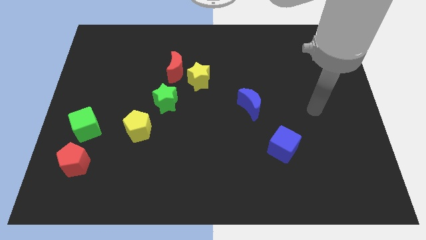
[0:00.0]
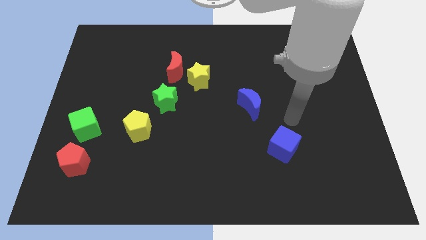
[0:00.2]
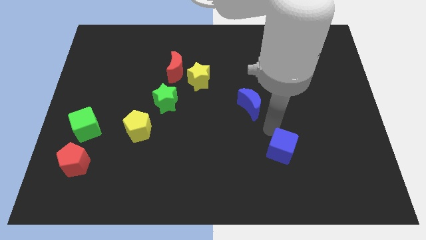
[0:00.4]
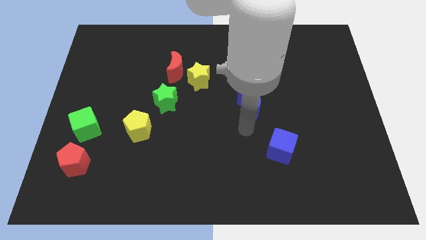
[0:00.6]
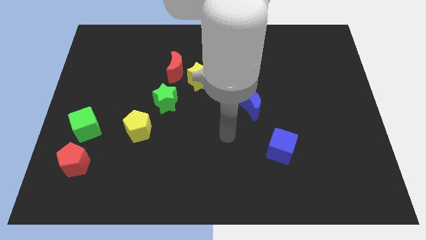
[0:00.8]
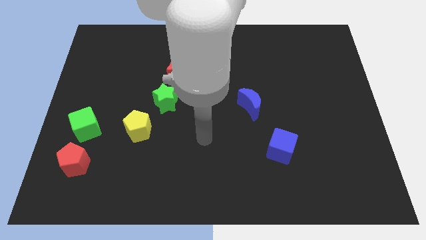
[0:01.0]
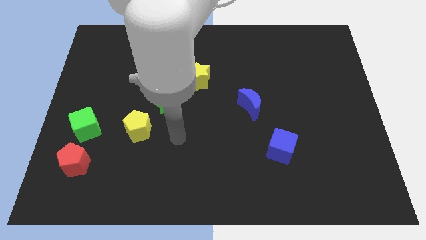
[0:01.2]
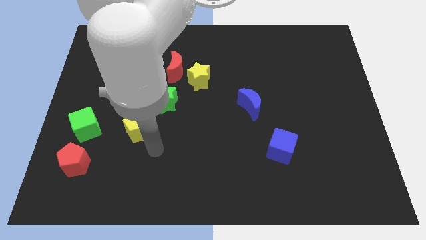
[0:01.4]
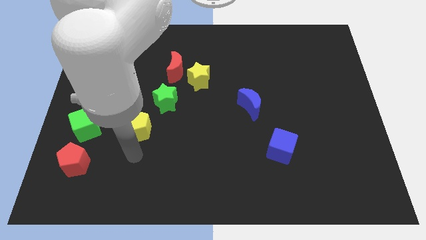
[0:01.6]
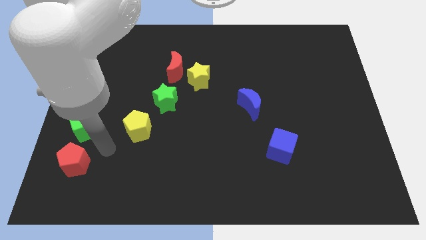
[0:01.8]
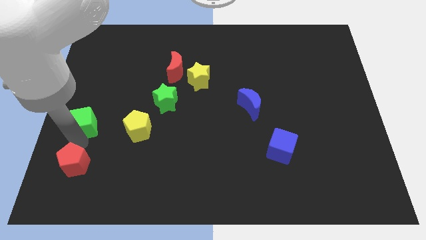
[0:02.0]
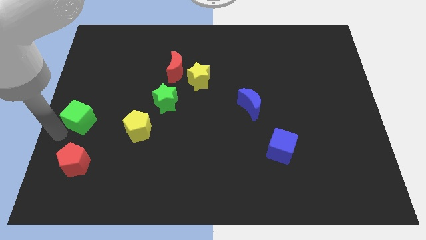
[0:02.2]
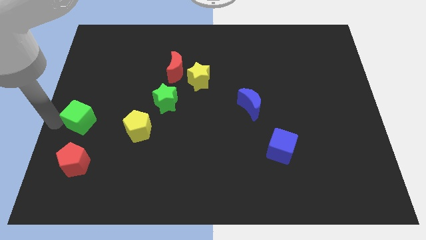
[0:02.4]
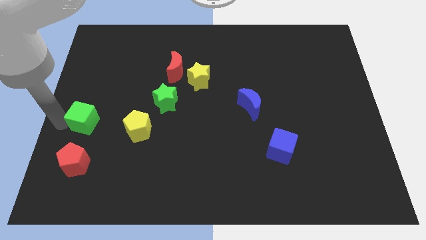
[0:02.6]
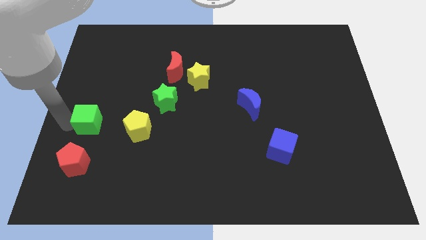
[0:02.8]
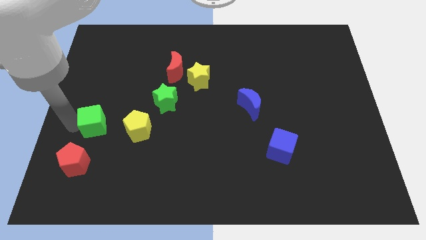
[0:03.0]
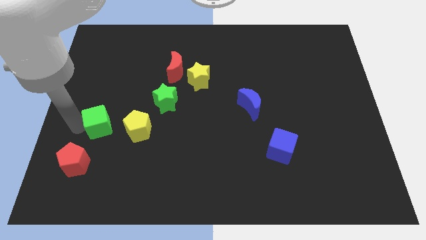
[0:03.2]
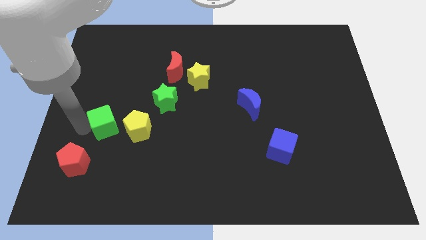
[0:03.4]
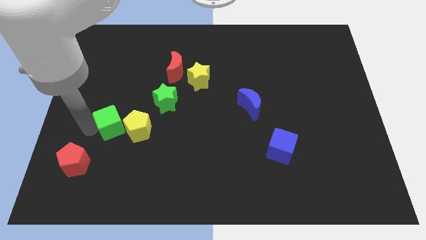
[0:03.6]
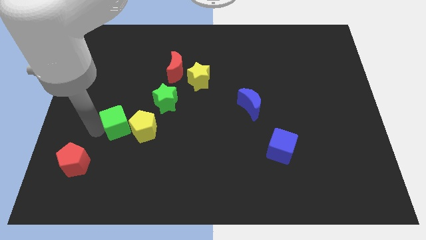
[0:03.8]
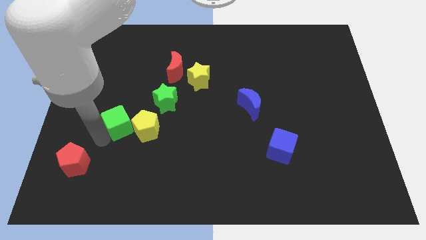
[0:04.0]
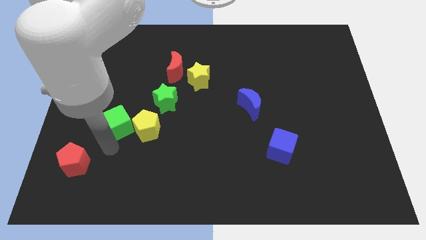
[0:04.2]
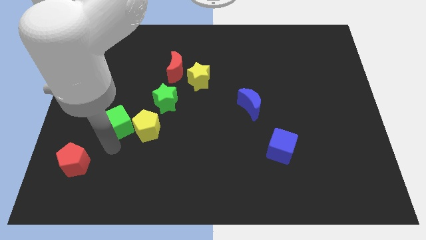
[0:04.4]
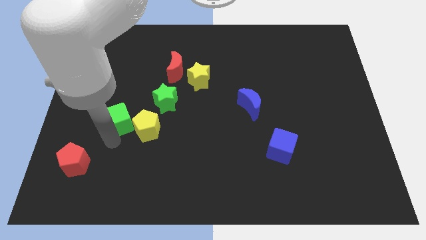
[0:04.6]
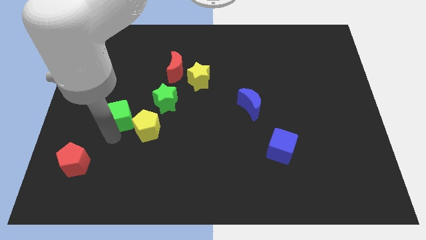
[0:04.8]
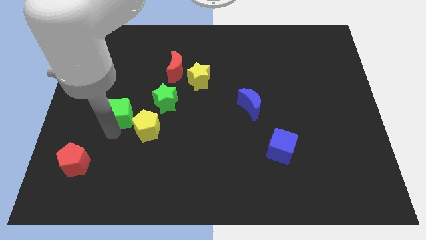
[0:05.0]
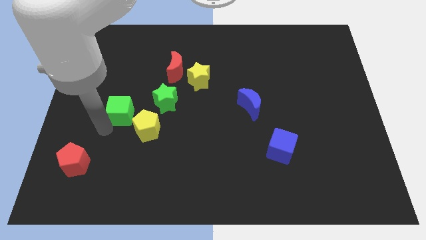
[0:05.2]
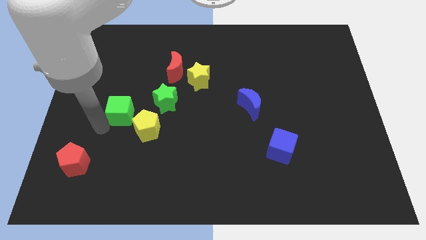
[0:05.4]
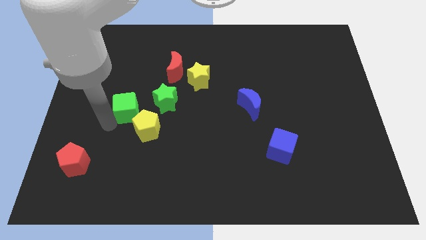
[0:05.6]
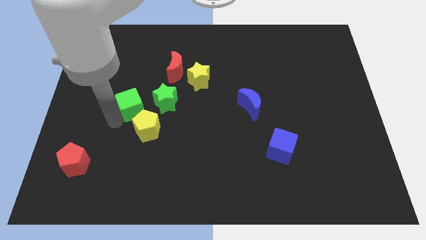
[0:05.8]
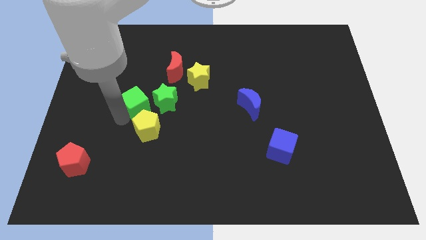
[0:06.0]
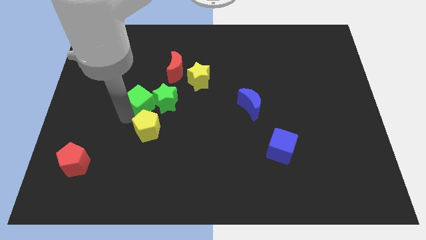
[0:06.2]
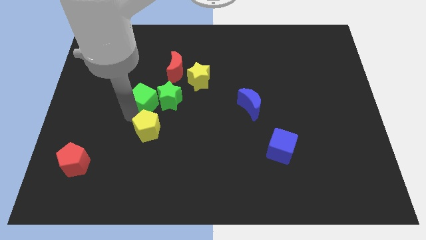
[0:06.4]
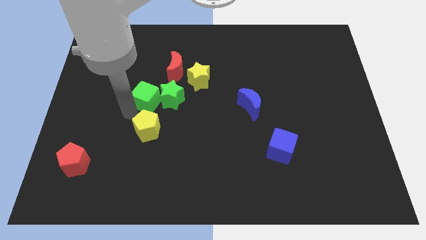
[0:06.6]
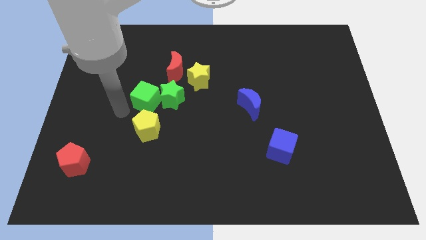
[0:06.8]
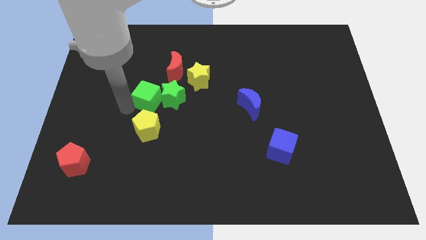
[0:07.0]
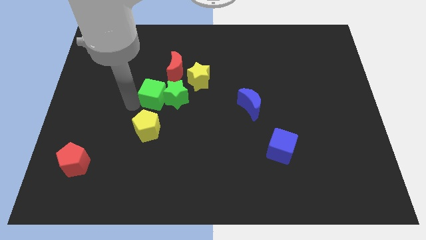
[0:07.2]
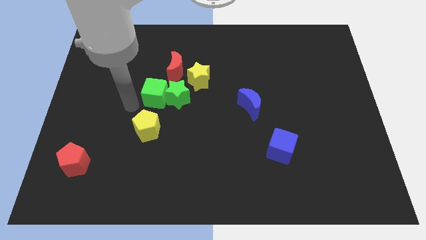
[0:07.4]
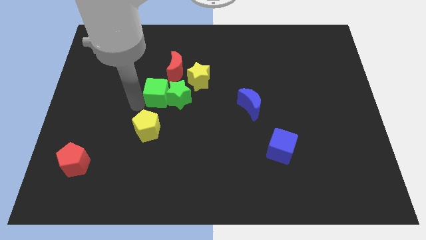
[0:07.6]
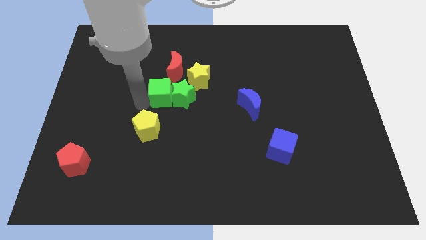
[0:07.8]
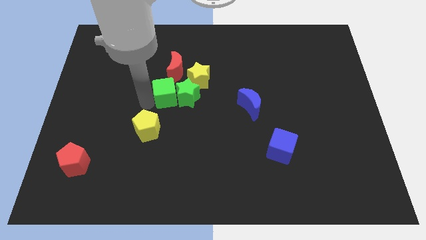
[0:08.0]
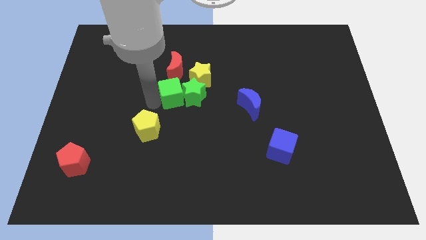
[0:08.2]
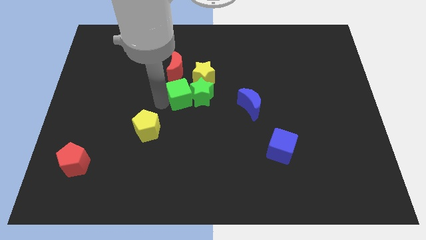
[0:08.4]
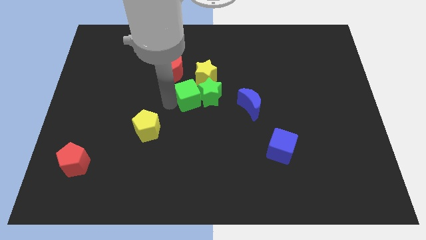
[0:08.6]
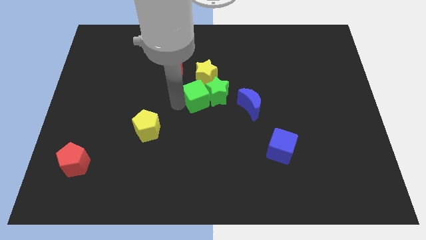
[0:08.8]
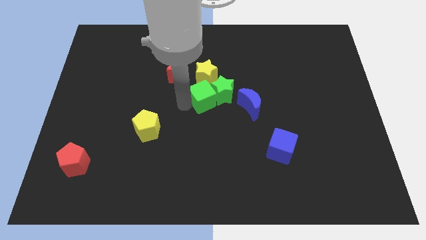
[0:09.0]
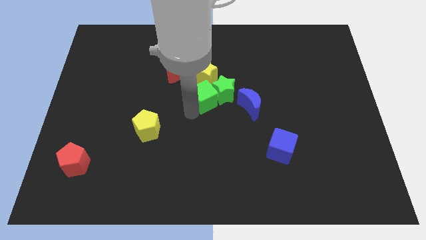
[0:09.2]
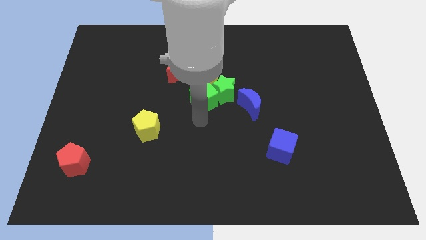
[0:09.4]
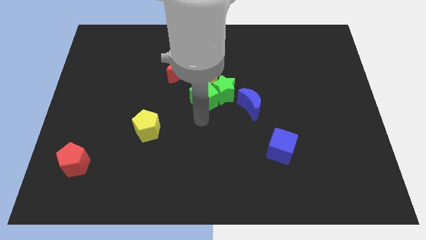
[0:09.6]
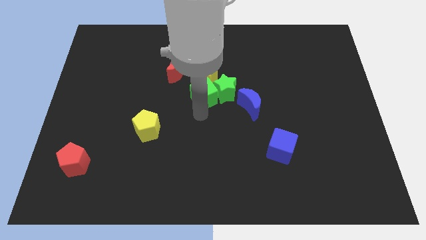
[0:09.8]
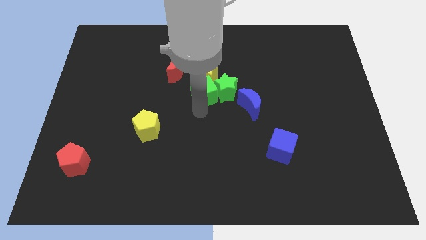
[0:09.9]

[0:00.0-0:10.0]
slide the green cube close to the yellow star

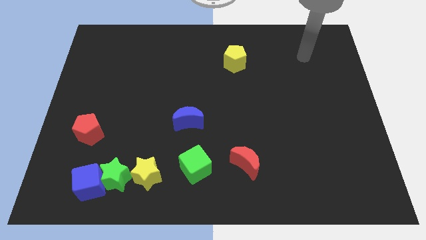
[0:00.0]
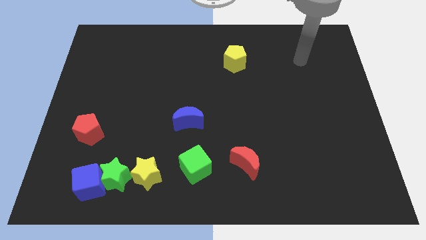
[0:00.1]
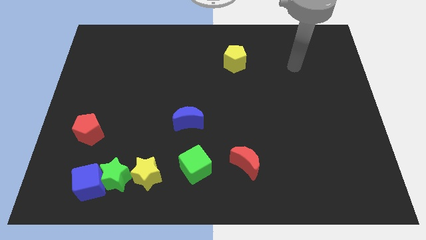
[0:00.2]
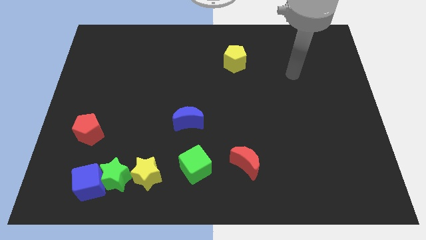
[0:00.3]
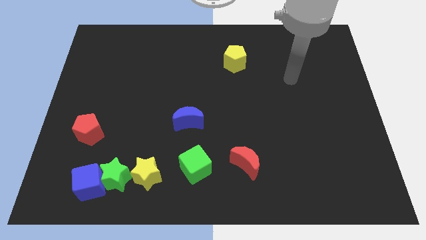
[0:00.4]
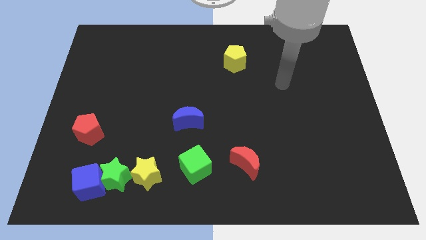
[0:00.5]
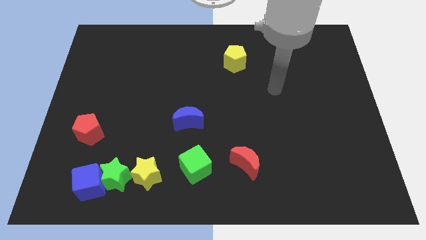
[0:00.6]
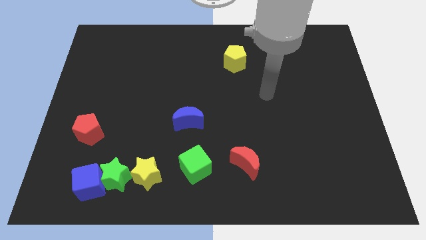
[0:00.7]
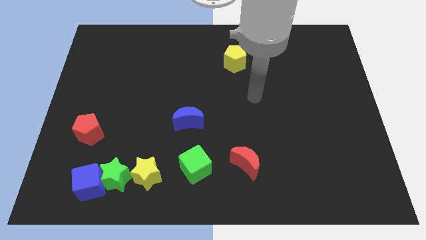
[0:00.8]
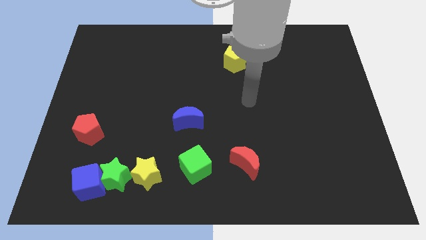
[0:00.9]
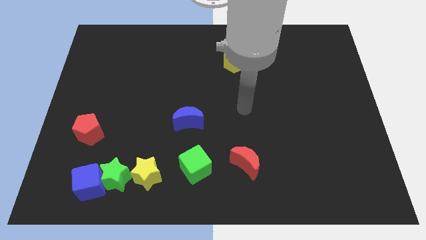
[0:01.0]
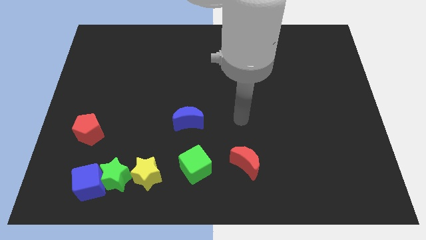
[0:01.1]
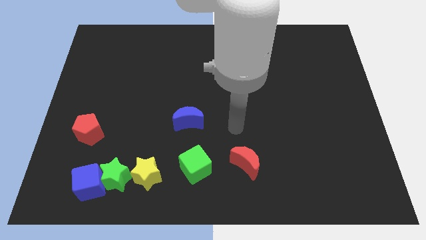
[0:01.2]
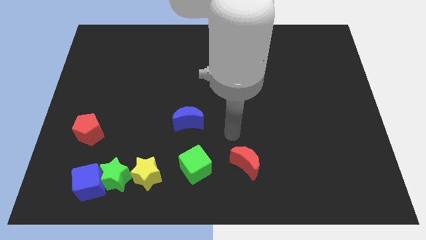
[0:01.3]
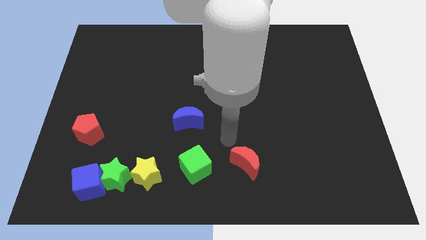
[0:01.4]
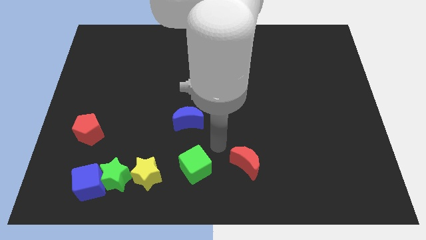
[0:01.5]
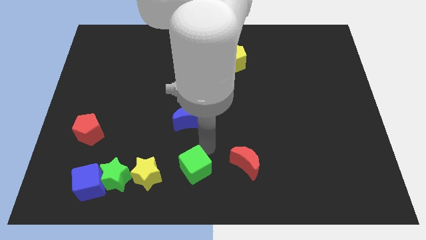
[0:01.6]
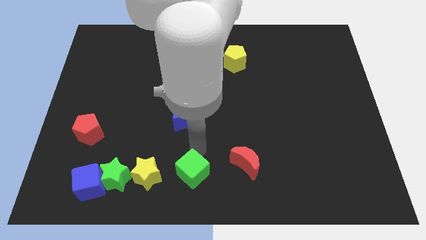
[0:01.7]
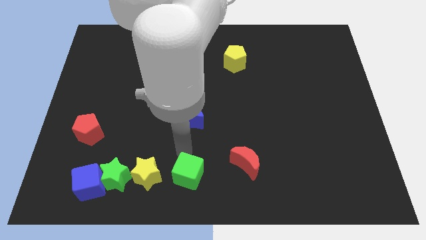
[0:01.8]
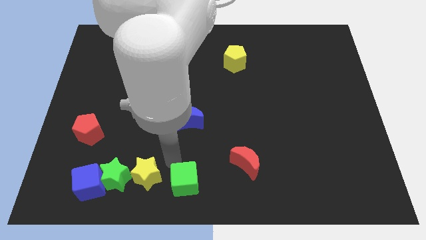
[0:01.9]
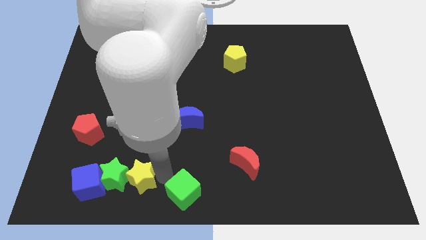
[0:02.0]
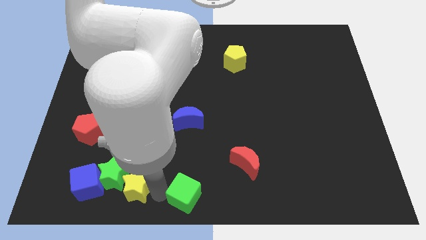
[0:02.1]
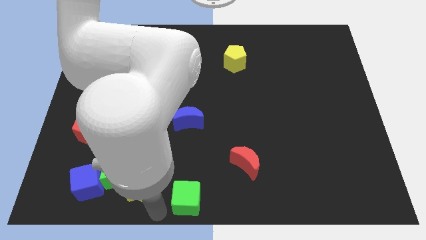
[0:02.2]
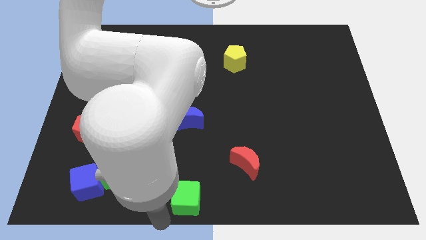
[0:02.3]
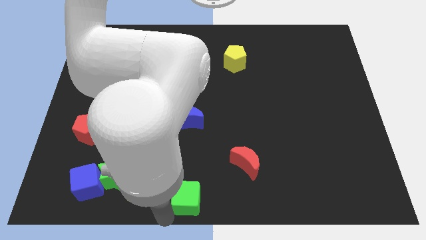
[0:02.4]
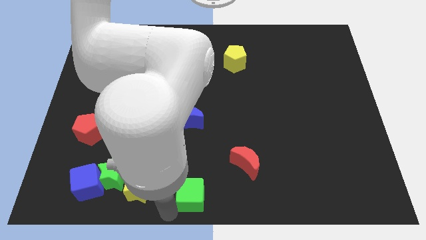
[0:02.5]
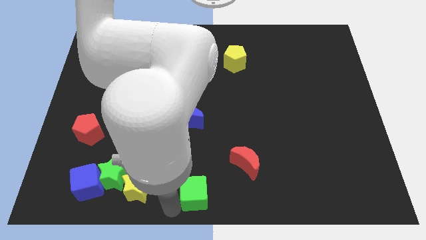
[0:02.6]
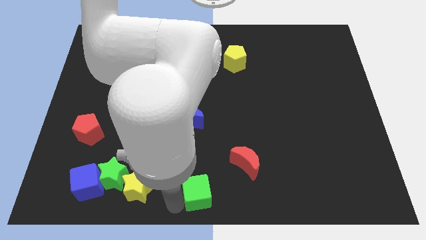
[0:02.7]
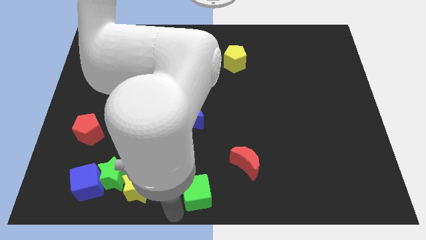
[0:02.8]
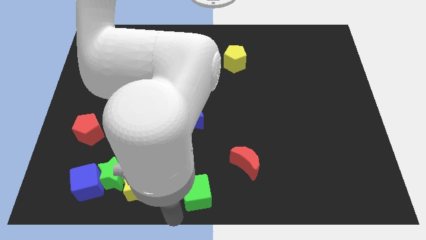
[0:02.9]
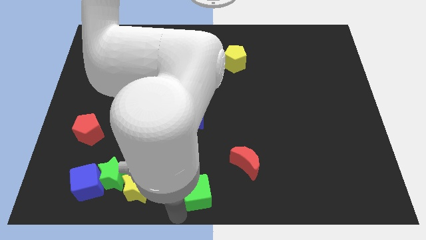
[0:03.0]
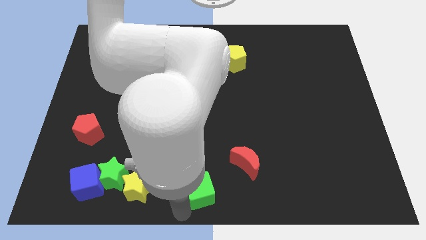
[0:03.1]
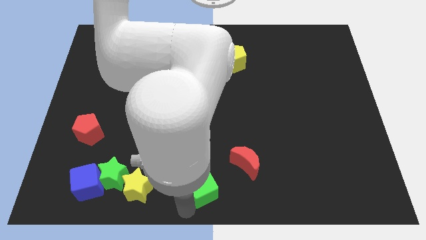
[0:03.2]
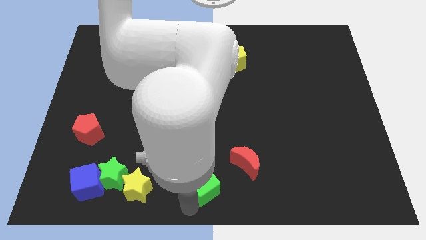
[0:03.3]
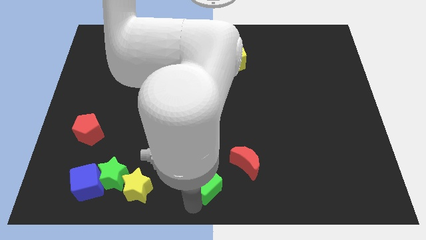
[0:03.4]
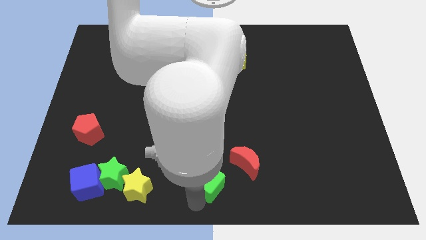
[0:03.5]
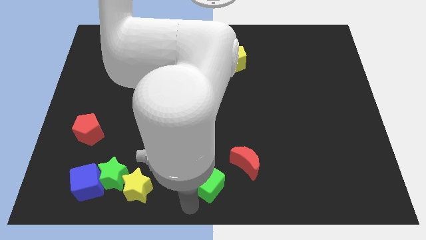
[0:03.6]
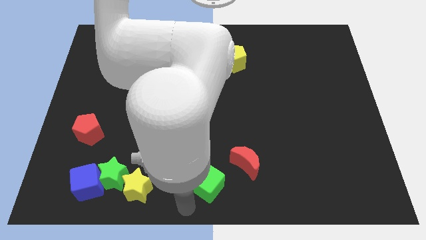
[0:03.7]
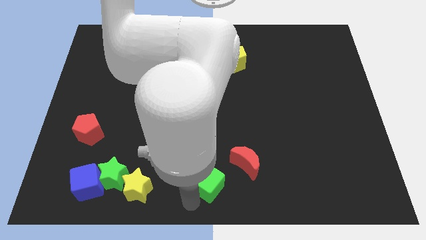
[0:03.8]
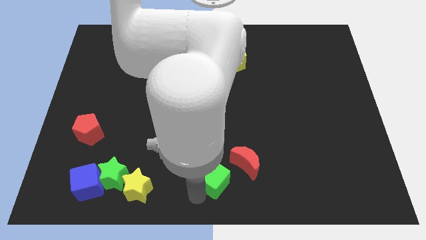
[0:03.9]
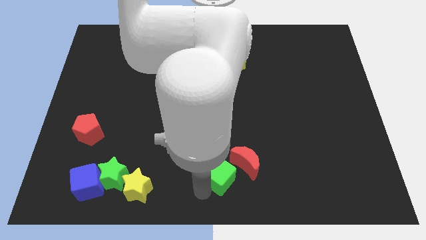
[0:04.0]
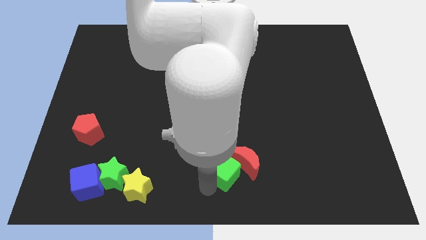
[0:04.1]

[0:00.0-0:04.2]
slide the green cube towards the red moon
